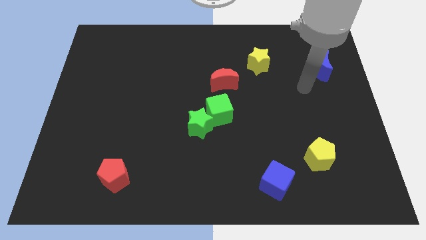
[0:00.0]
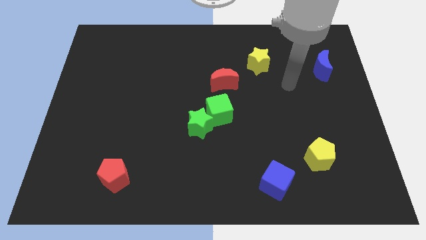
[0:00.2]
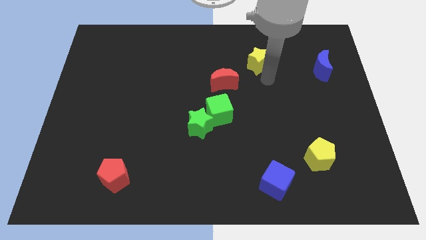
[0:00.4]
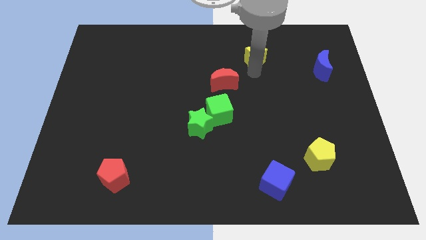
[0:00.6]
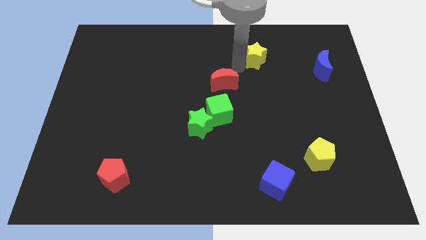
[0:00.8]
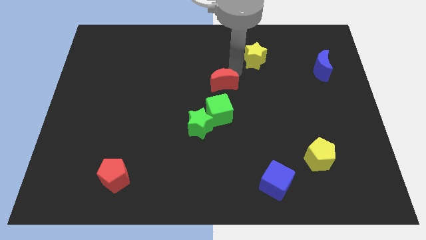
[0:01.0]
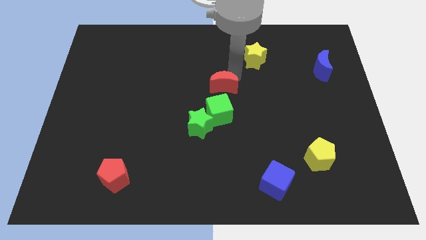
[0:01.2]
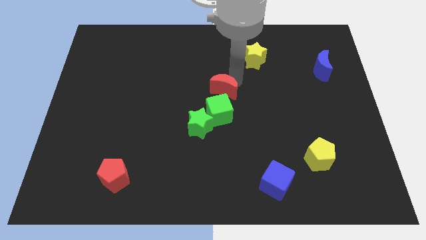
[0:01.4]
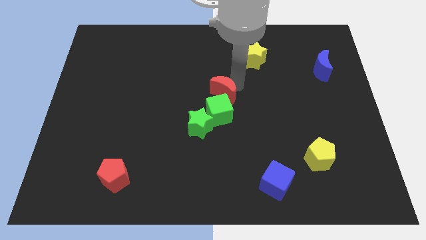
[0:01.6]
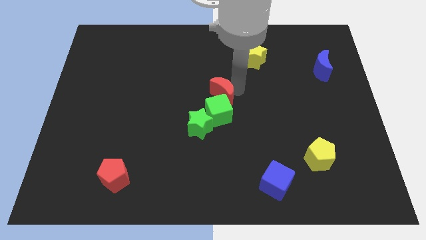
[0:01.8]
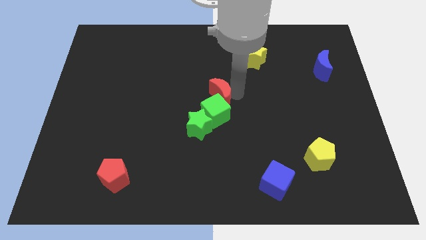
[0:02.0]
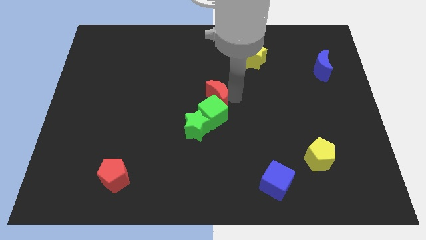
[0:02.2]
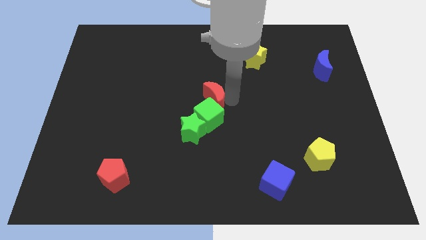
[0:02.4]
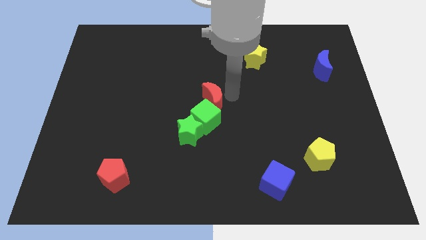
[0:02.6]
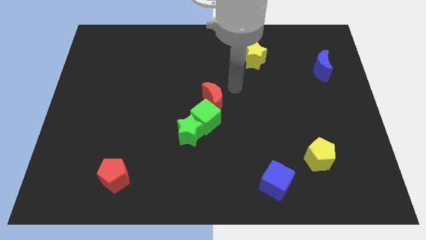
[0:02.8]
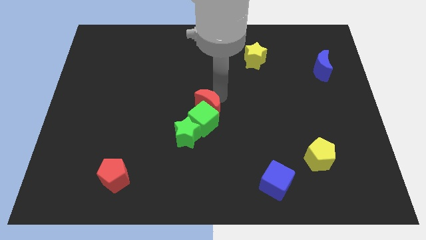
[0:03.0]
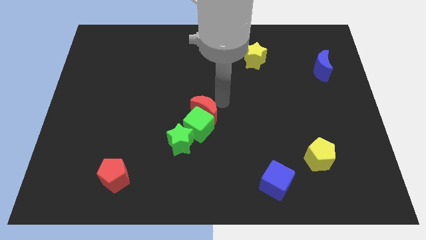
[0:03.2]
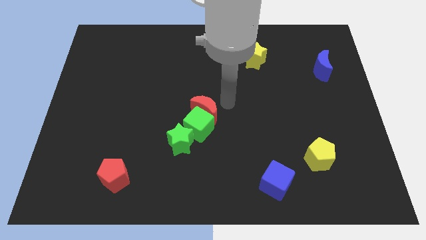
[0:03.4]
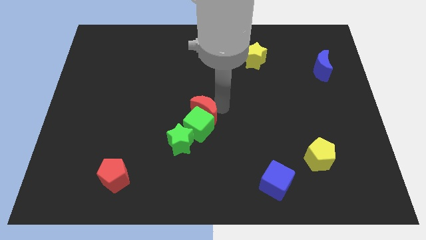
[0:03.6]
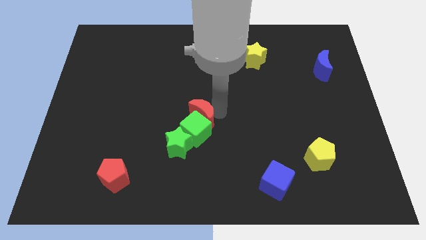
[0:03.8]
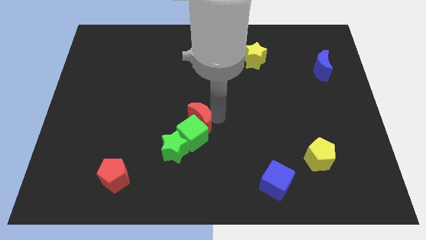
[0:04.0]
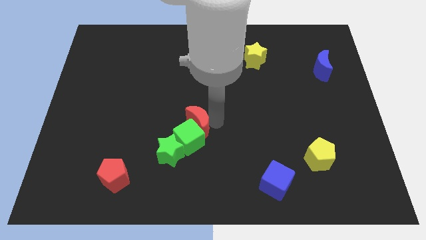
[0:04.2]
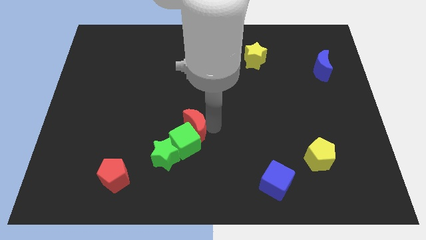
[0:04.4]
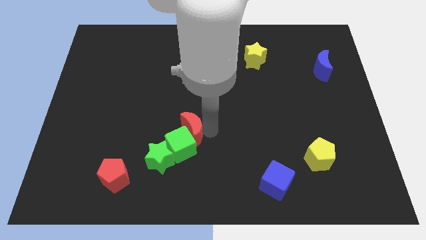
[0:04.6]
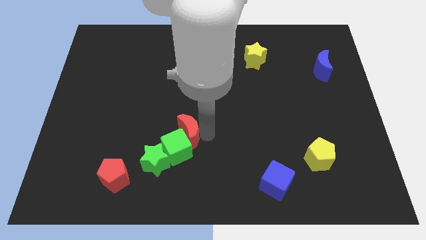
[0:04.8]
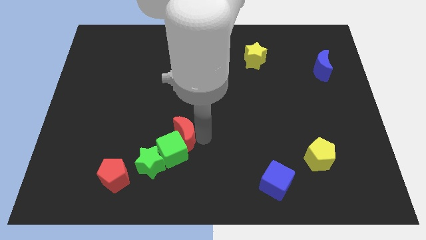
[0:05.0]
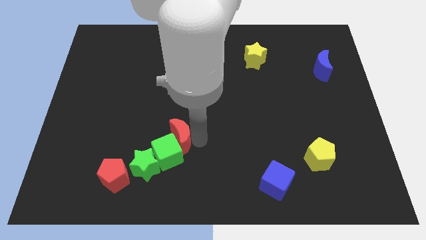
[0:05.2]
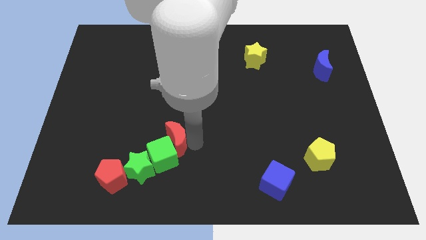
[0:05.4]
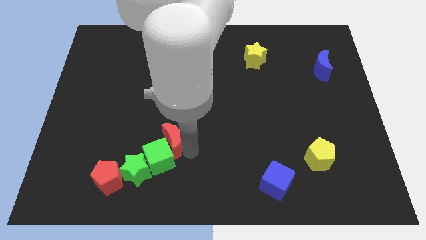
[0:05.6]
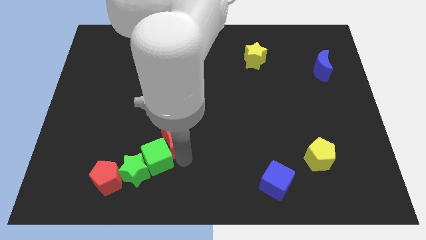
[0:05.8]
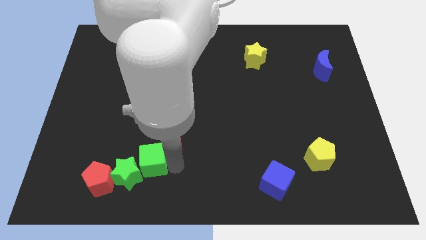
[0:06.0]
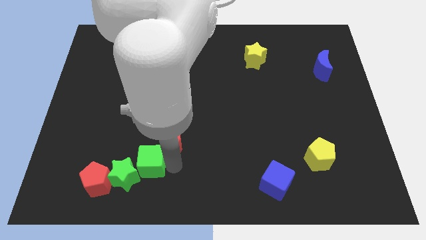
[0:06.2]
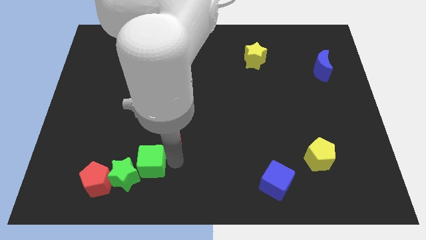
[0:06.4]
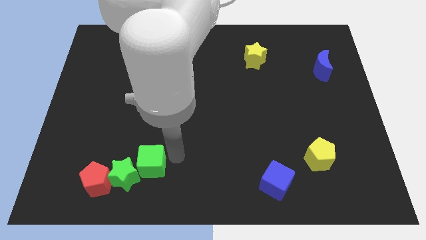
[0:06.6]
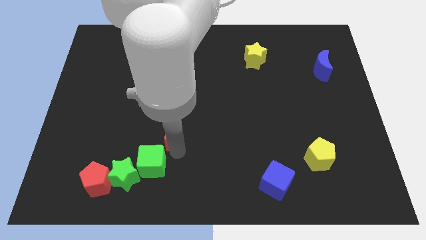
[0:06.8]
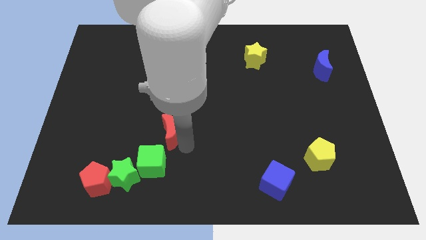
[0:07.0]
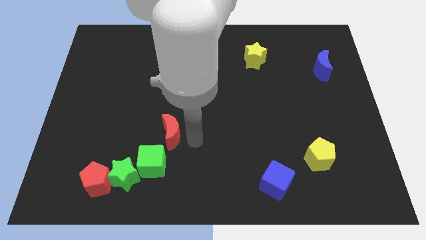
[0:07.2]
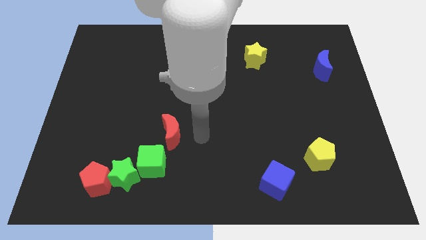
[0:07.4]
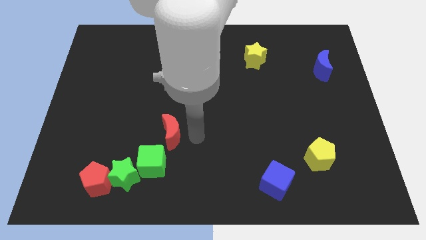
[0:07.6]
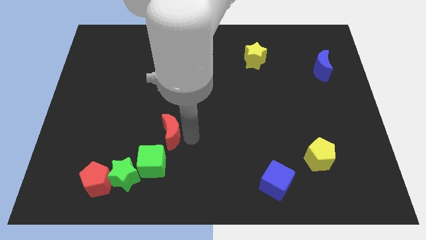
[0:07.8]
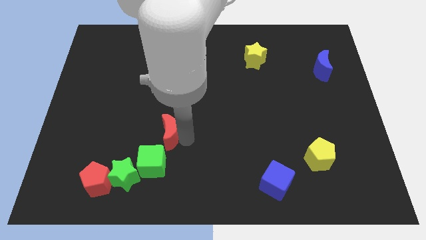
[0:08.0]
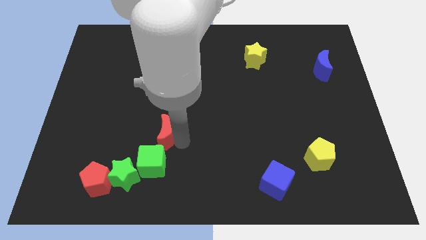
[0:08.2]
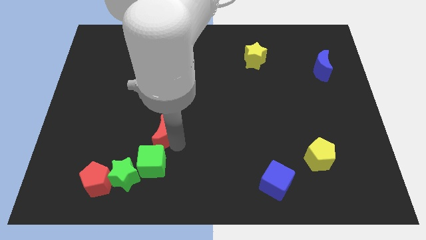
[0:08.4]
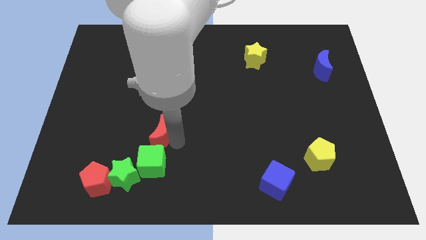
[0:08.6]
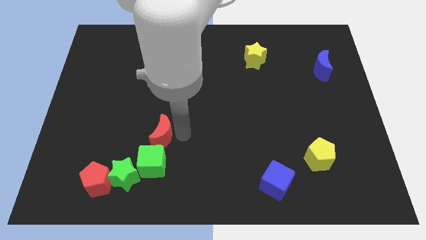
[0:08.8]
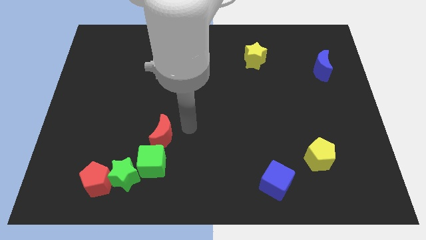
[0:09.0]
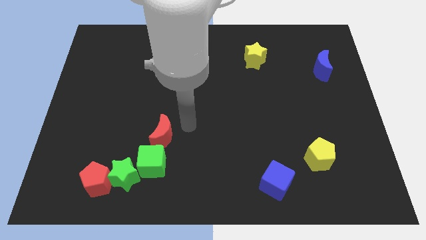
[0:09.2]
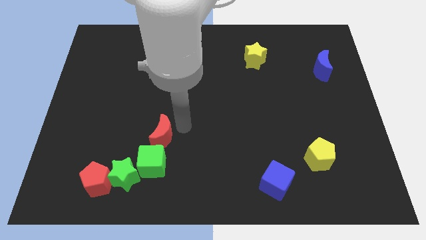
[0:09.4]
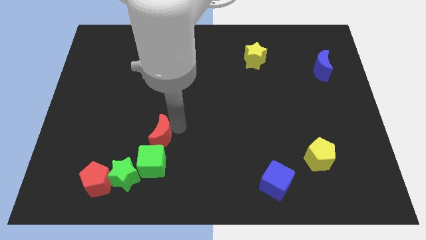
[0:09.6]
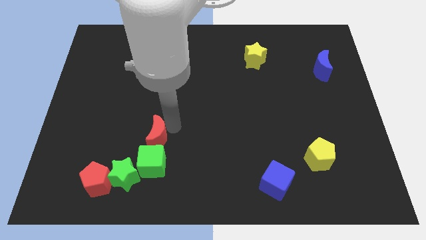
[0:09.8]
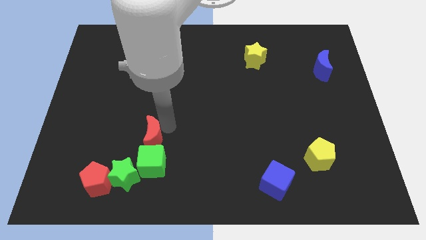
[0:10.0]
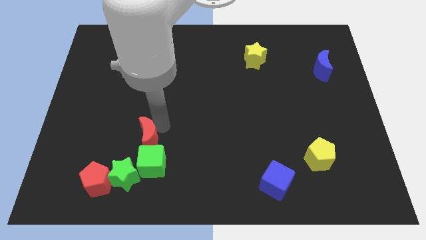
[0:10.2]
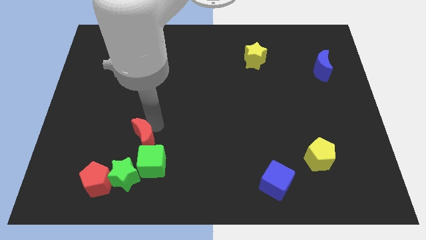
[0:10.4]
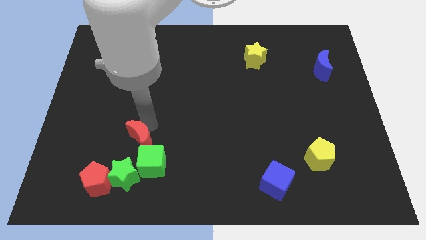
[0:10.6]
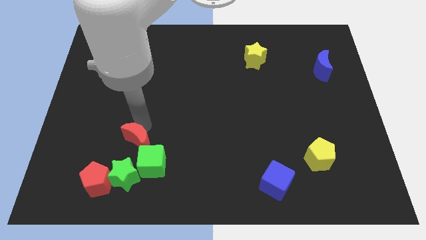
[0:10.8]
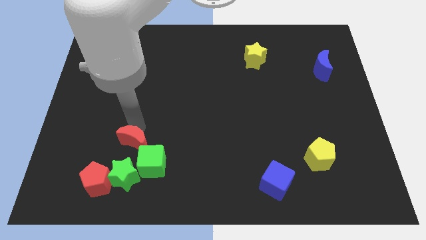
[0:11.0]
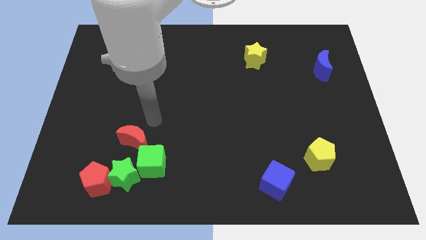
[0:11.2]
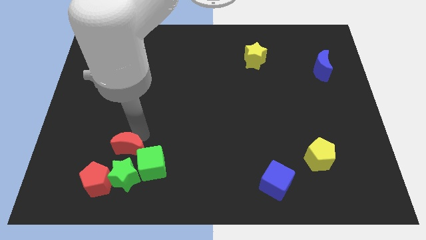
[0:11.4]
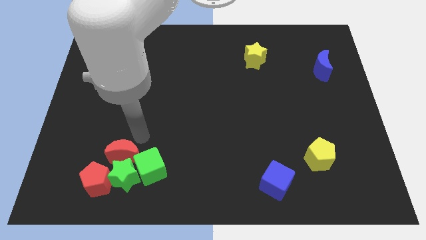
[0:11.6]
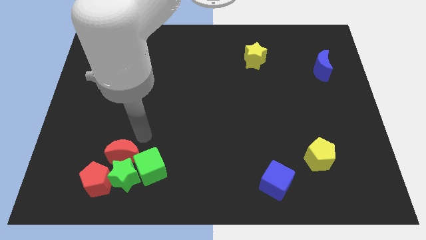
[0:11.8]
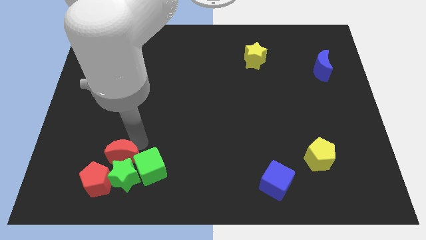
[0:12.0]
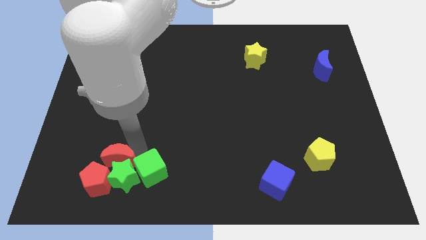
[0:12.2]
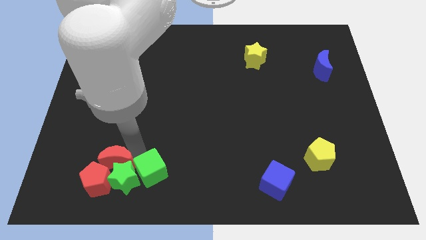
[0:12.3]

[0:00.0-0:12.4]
put the red moon towards the red pentagon

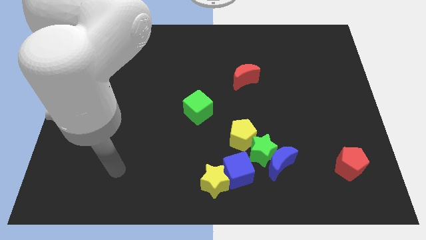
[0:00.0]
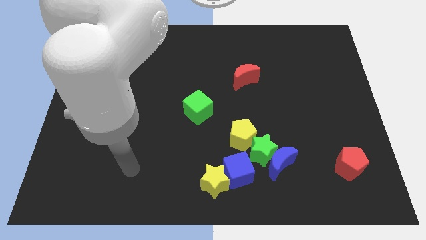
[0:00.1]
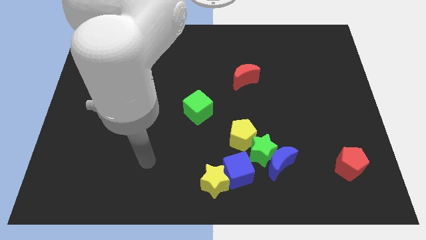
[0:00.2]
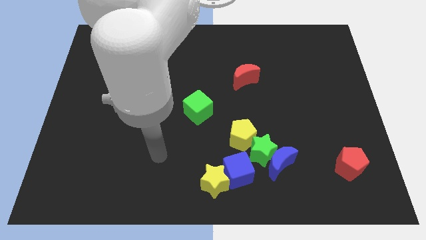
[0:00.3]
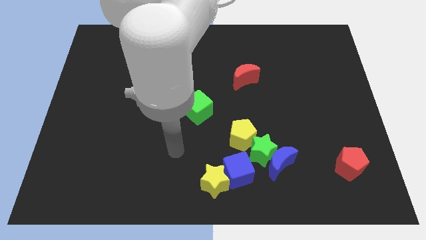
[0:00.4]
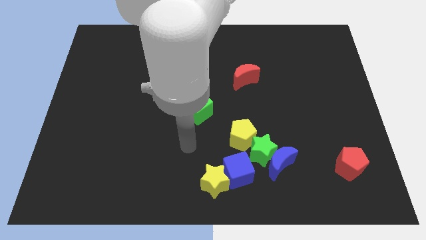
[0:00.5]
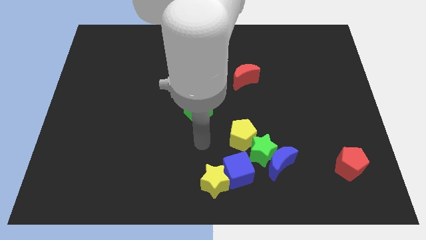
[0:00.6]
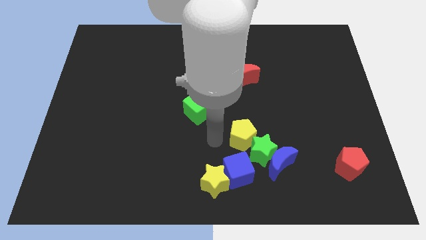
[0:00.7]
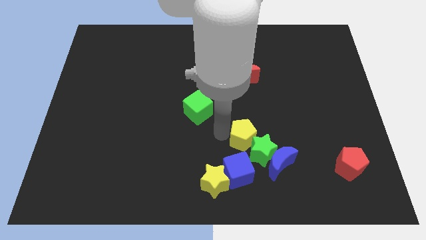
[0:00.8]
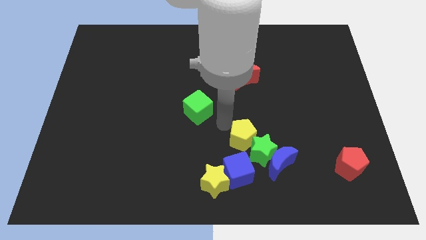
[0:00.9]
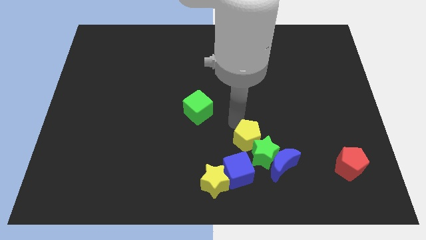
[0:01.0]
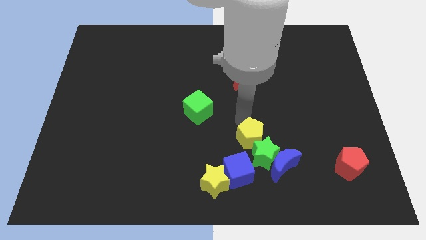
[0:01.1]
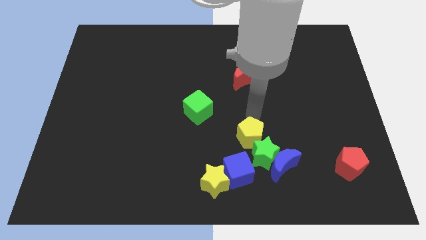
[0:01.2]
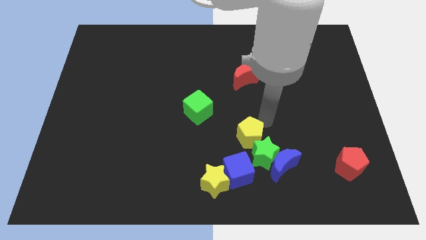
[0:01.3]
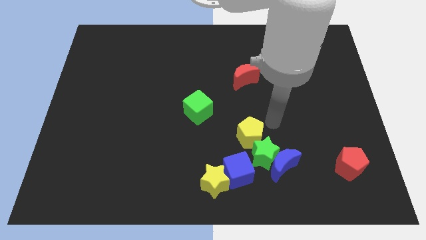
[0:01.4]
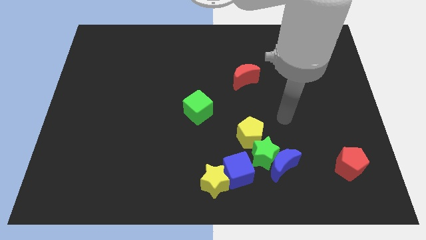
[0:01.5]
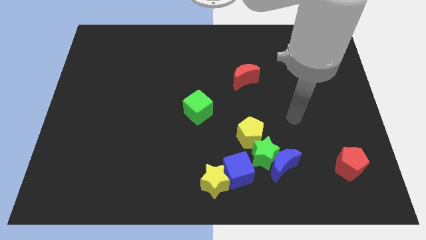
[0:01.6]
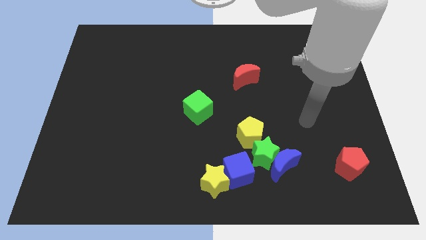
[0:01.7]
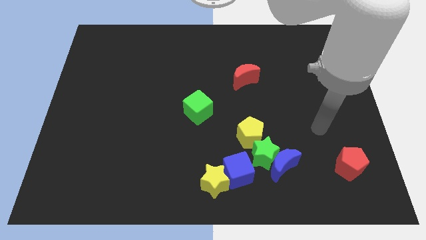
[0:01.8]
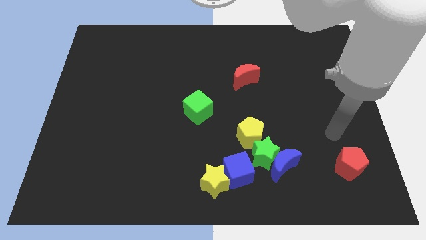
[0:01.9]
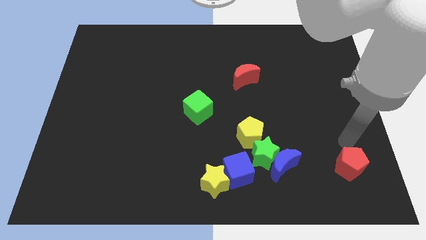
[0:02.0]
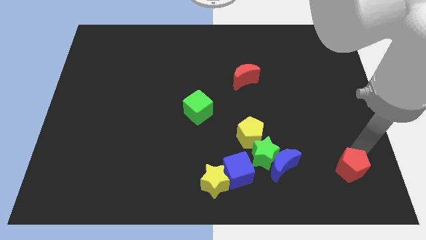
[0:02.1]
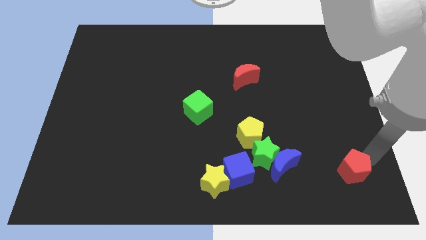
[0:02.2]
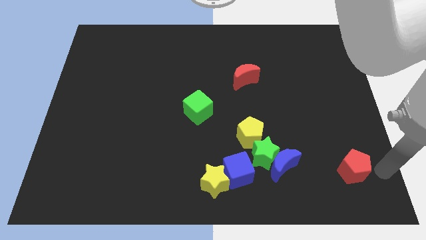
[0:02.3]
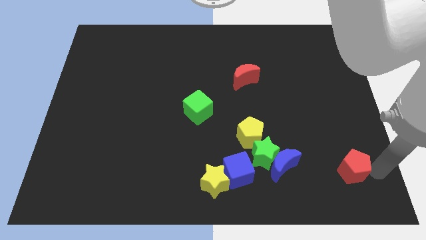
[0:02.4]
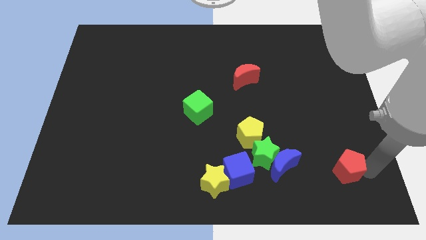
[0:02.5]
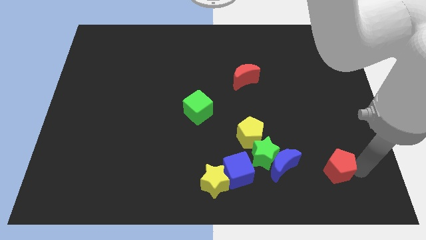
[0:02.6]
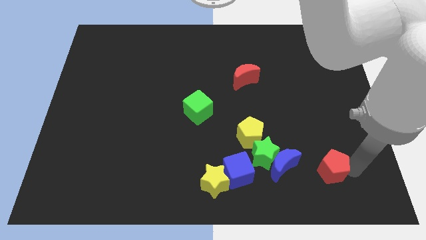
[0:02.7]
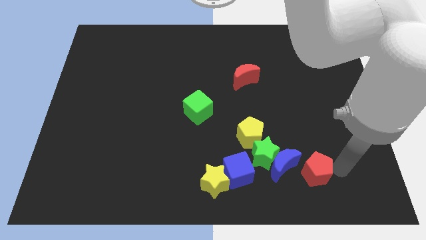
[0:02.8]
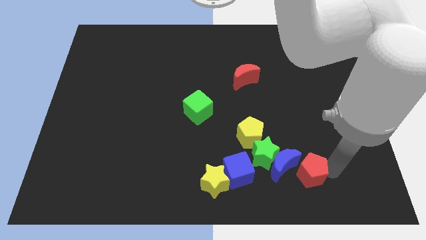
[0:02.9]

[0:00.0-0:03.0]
slide the red pentagon close to the blue moon
